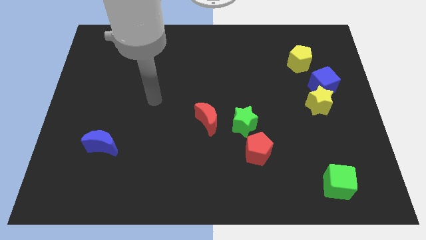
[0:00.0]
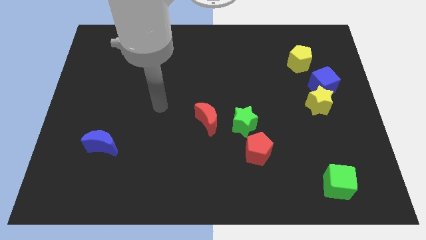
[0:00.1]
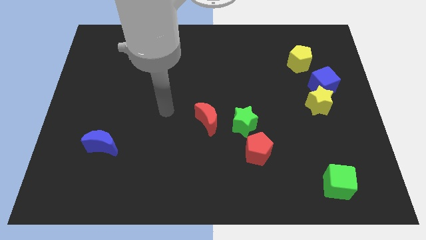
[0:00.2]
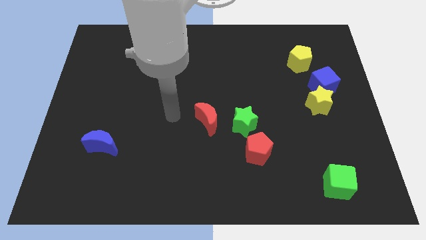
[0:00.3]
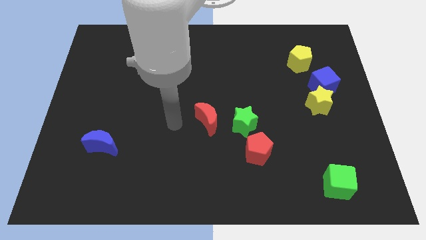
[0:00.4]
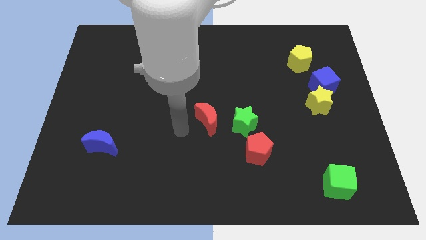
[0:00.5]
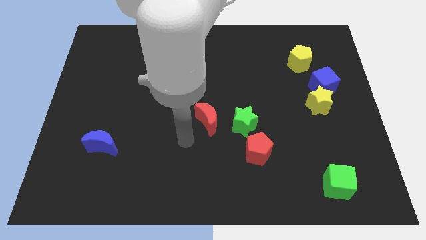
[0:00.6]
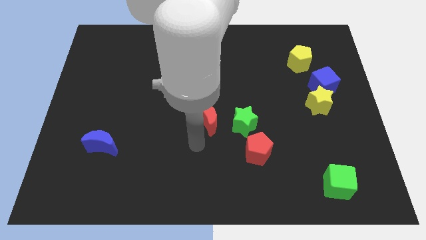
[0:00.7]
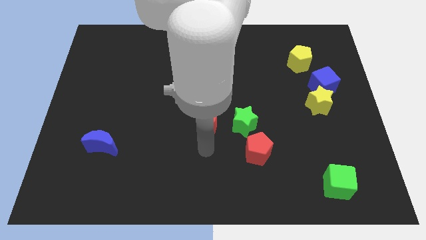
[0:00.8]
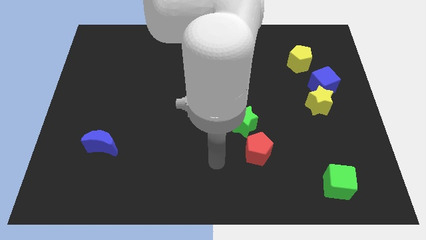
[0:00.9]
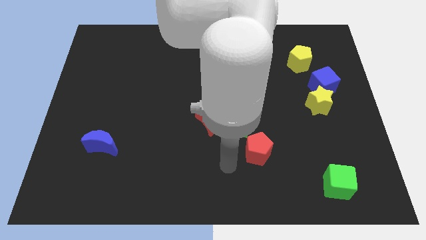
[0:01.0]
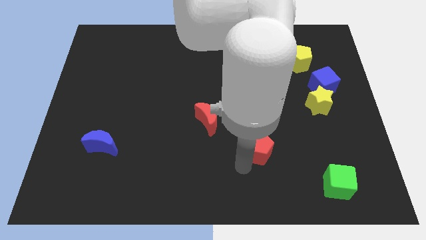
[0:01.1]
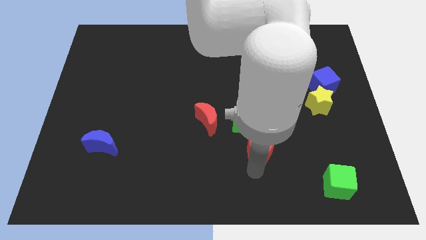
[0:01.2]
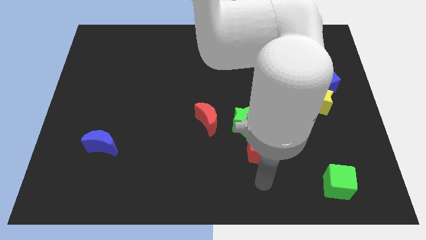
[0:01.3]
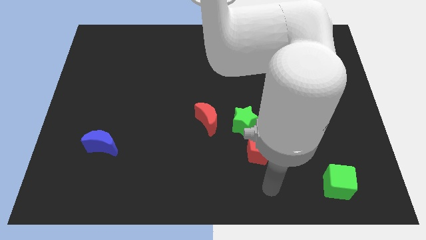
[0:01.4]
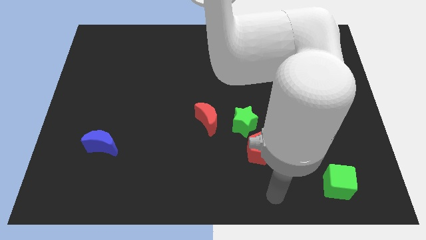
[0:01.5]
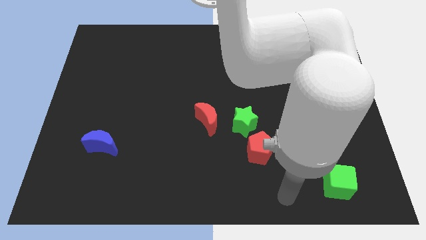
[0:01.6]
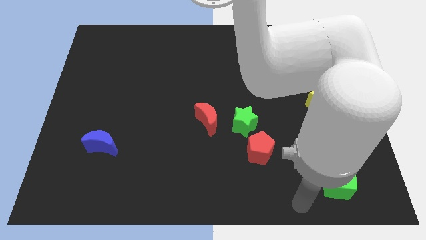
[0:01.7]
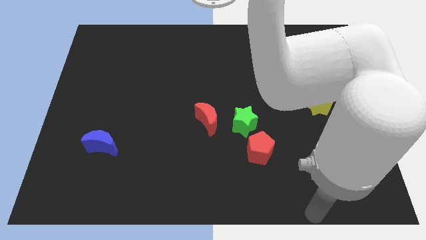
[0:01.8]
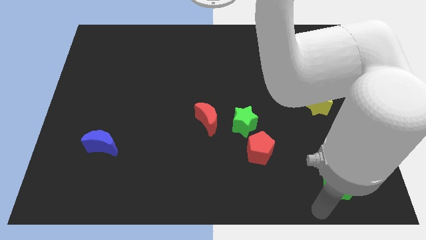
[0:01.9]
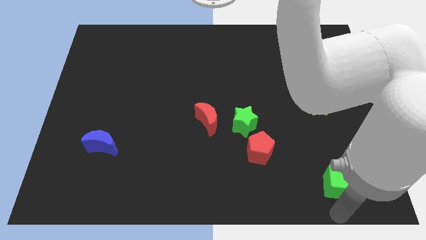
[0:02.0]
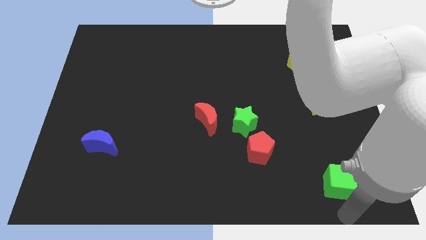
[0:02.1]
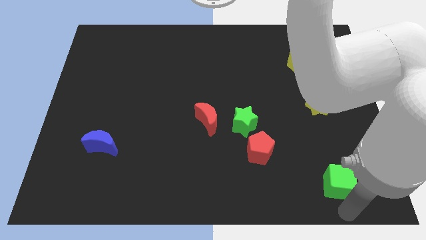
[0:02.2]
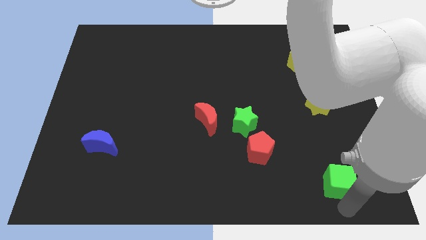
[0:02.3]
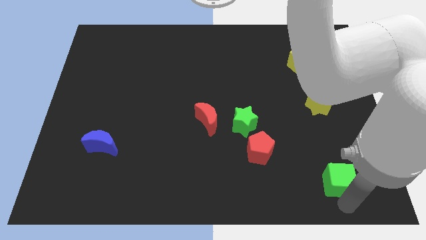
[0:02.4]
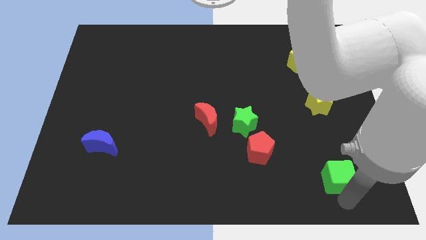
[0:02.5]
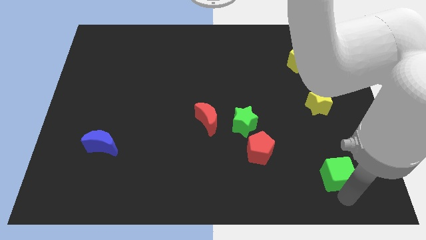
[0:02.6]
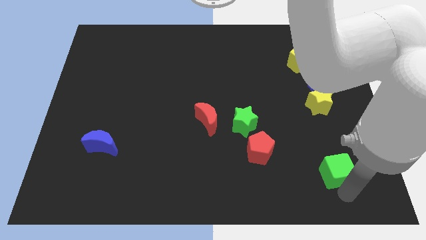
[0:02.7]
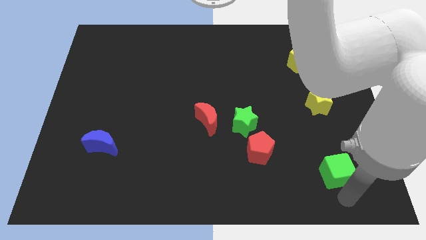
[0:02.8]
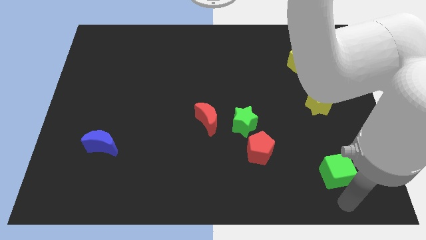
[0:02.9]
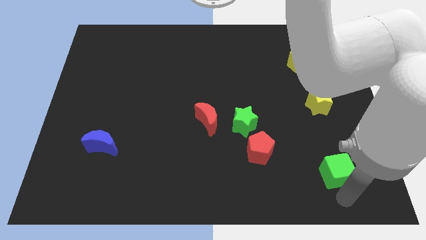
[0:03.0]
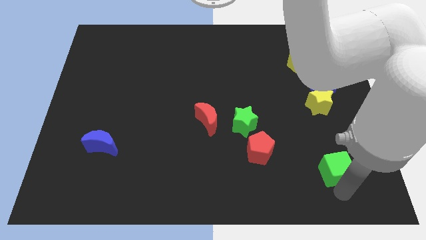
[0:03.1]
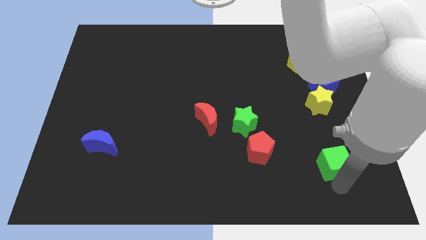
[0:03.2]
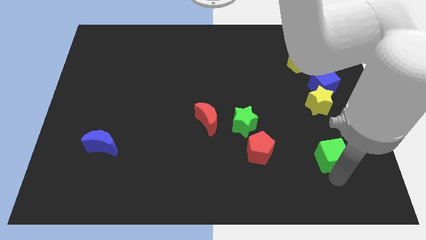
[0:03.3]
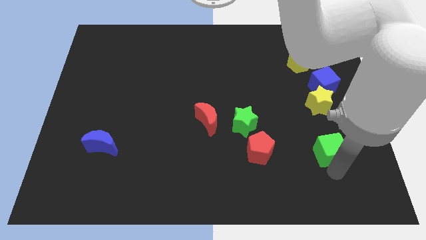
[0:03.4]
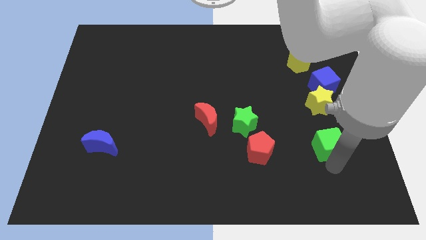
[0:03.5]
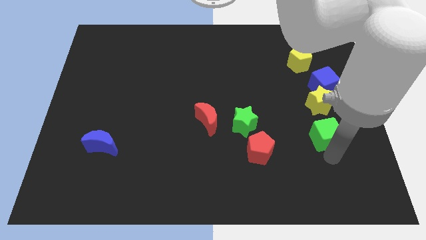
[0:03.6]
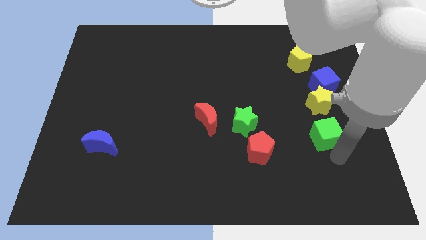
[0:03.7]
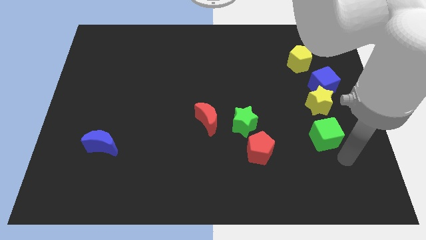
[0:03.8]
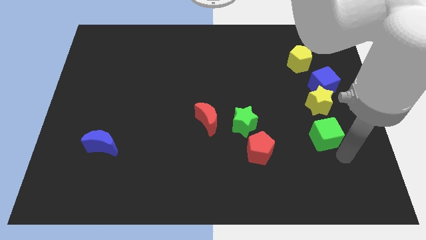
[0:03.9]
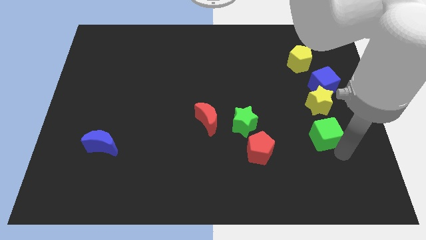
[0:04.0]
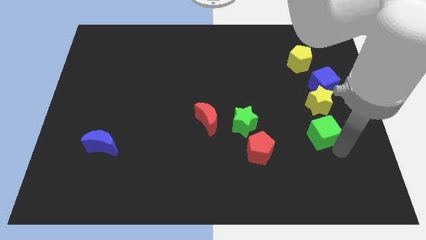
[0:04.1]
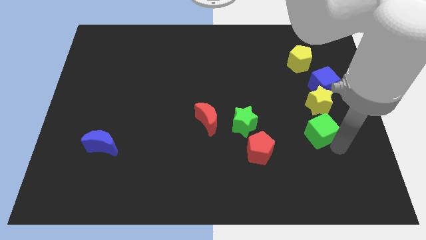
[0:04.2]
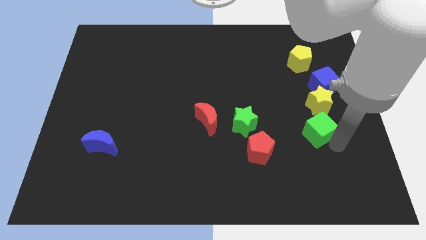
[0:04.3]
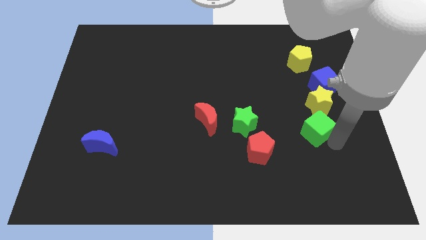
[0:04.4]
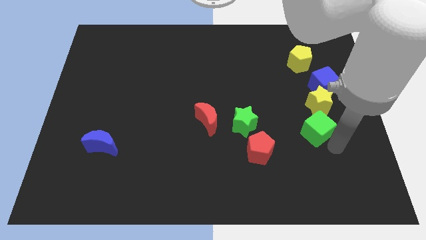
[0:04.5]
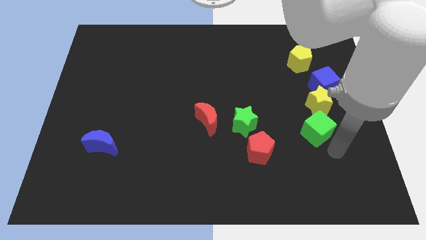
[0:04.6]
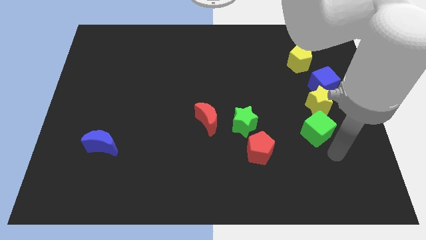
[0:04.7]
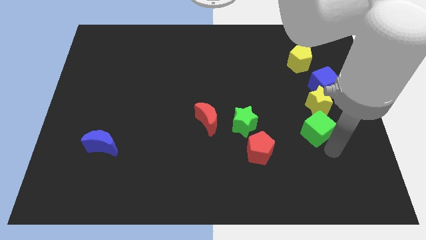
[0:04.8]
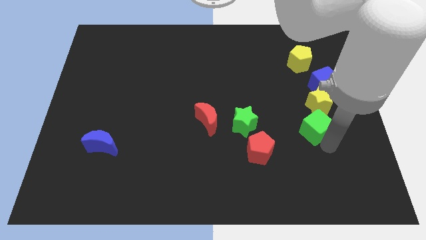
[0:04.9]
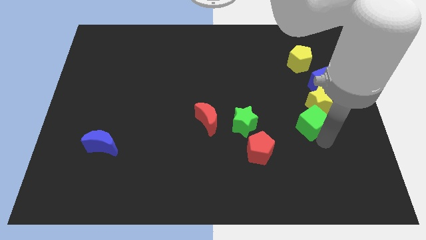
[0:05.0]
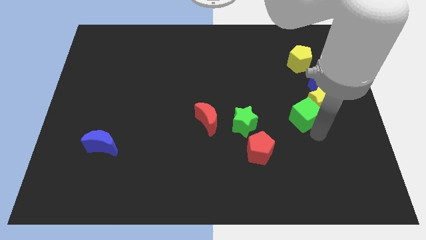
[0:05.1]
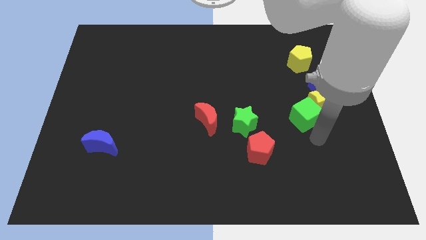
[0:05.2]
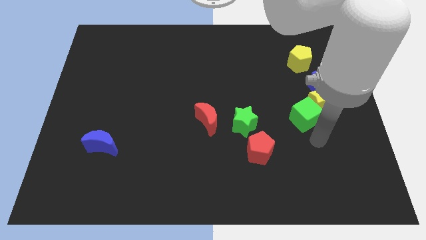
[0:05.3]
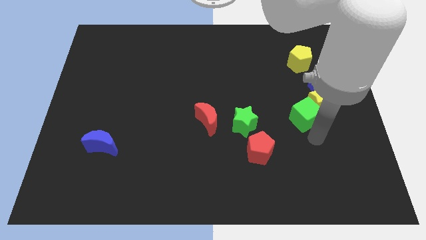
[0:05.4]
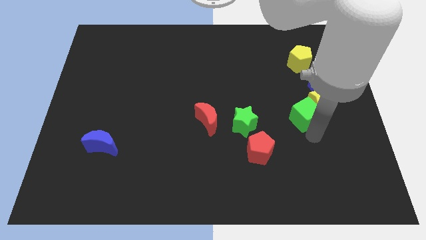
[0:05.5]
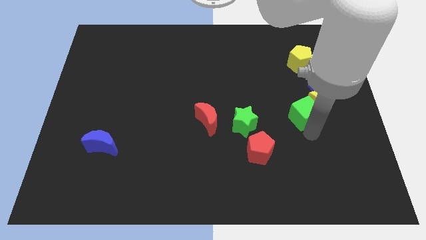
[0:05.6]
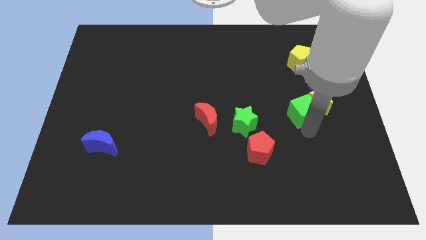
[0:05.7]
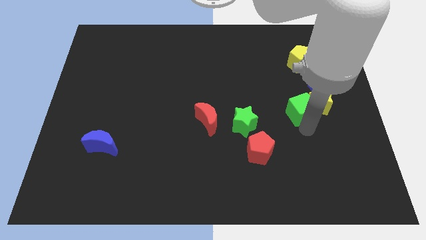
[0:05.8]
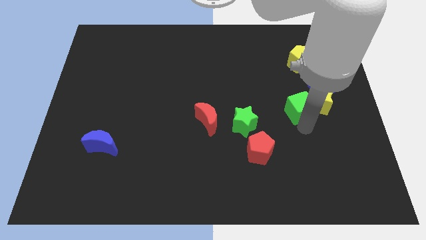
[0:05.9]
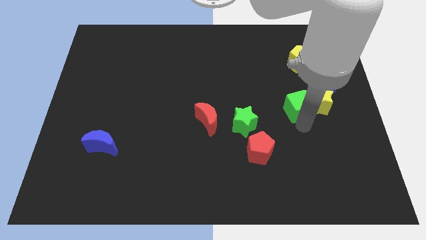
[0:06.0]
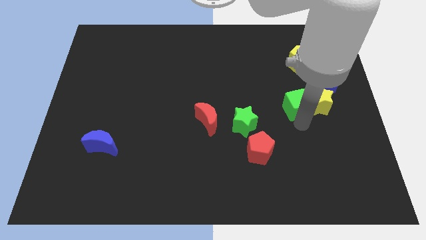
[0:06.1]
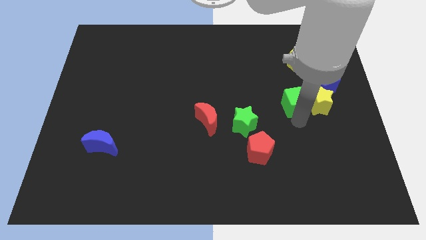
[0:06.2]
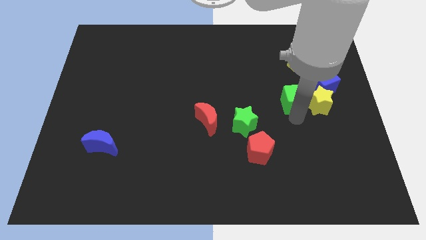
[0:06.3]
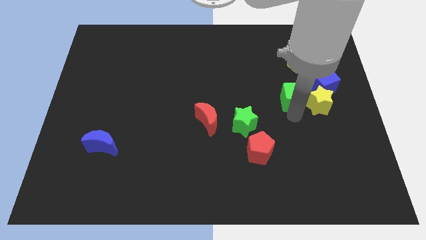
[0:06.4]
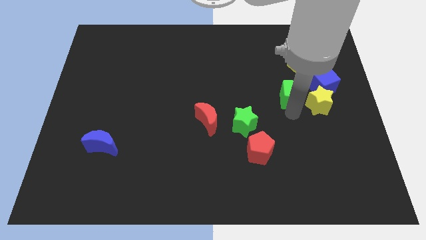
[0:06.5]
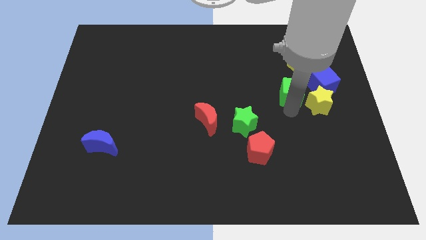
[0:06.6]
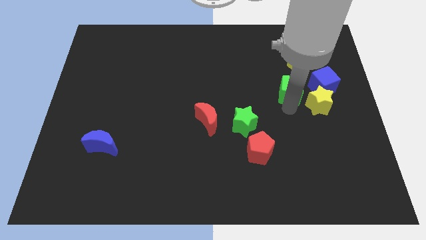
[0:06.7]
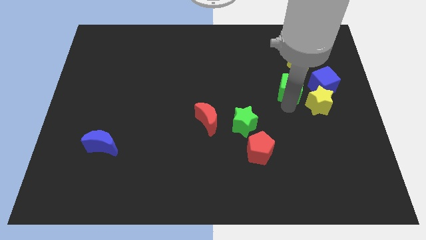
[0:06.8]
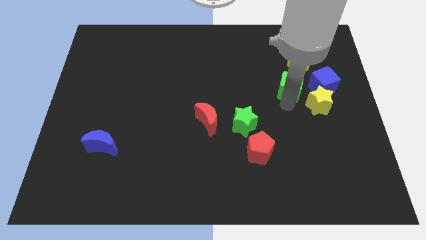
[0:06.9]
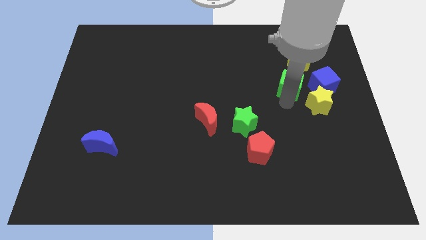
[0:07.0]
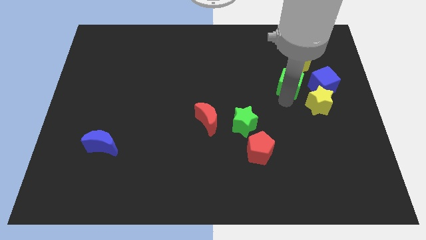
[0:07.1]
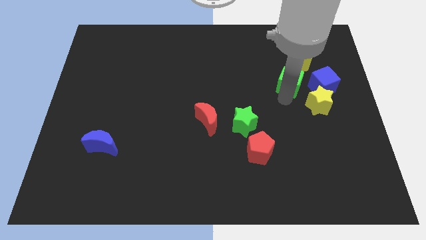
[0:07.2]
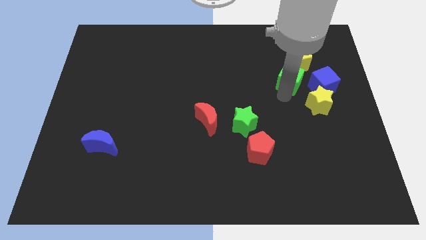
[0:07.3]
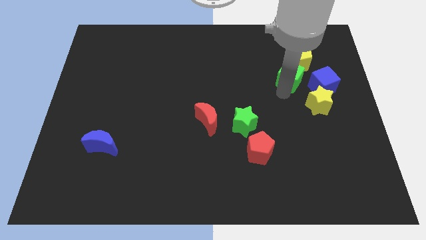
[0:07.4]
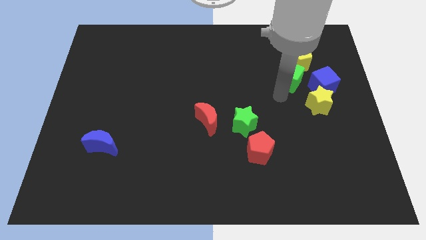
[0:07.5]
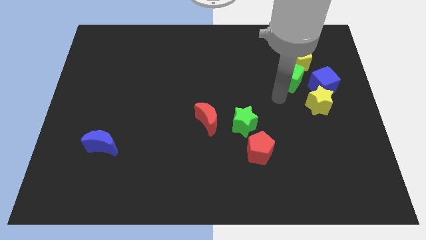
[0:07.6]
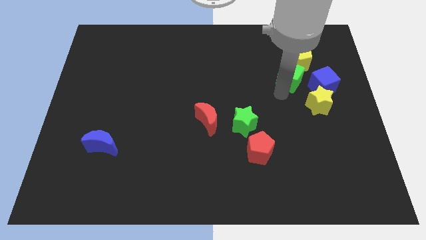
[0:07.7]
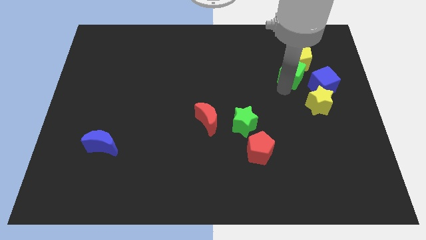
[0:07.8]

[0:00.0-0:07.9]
move the green cube close to the yellow pentagon

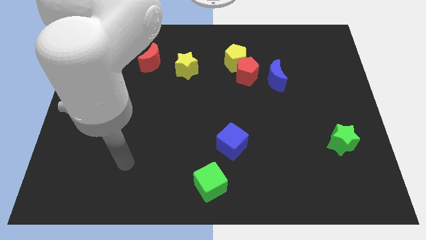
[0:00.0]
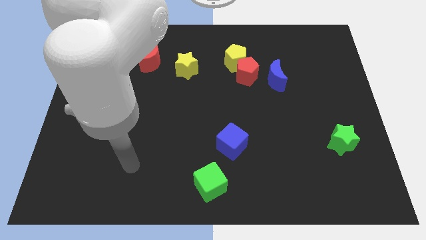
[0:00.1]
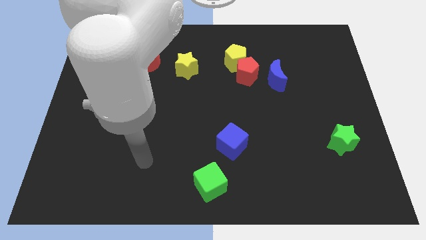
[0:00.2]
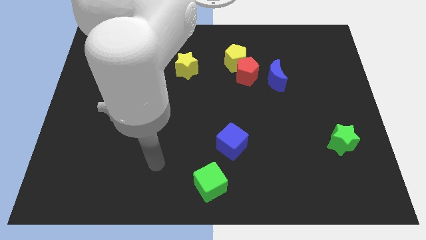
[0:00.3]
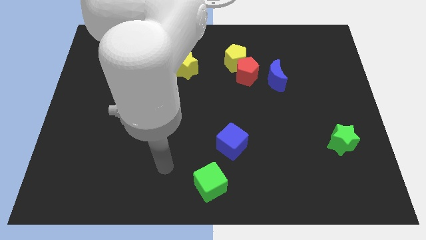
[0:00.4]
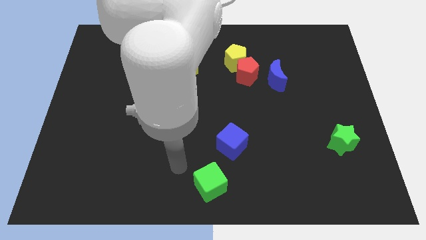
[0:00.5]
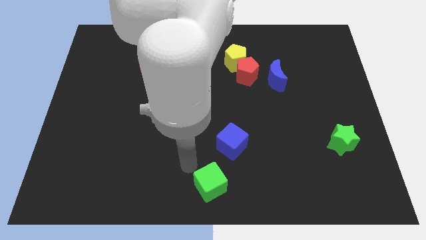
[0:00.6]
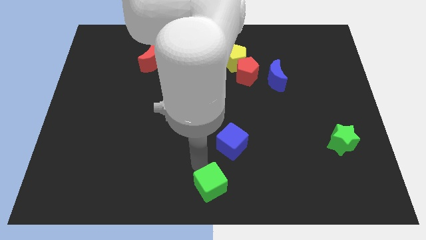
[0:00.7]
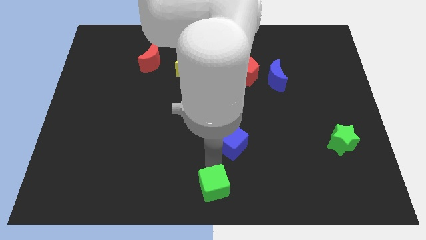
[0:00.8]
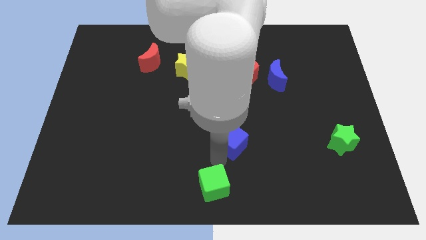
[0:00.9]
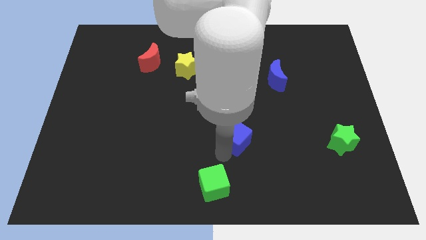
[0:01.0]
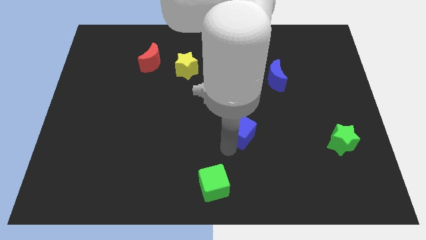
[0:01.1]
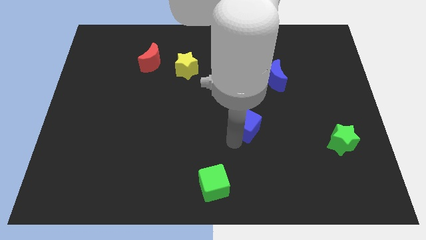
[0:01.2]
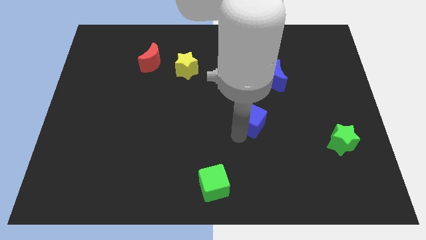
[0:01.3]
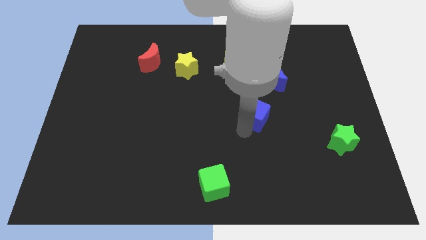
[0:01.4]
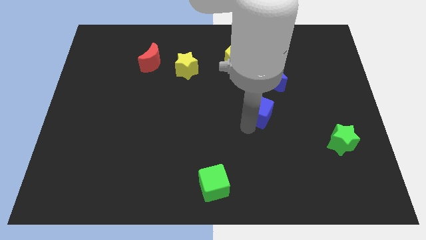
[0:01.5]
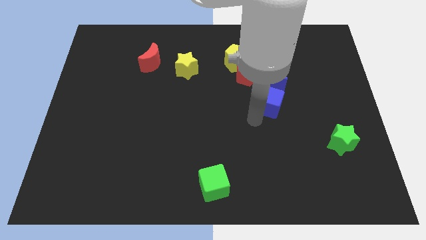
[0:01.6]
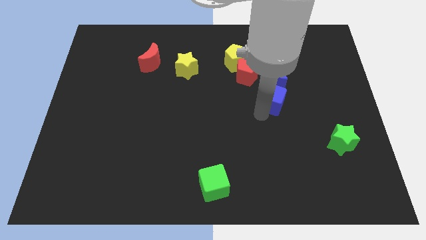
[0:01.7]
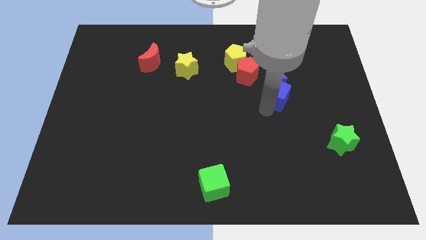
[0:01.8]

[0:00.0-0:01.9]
push the blue cube towards the blue moon
